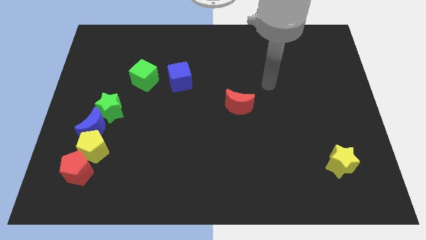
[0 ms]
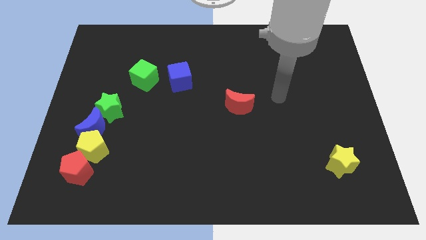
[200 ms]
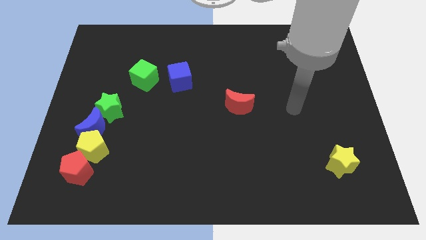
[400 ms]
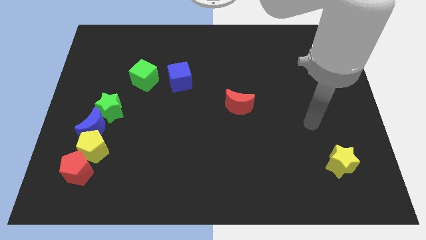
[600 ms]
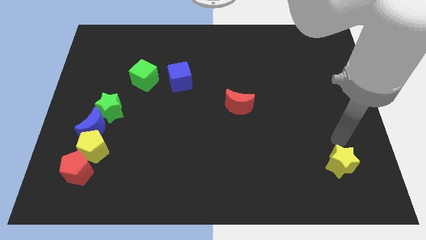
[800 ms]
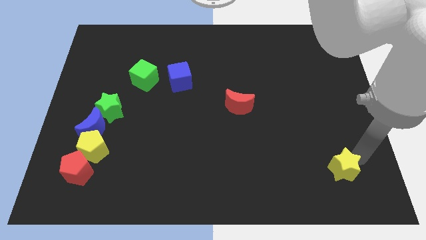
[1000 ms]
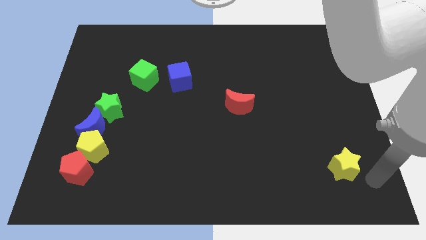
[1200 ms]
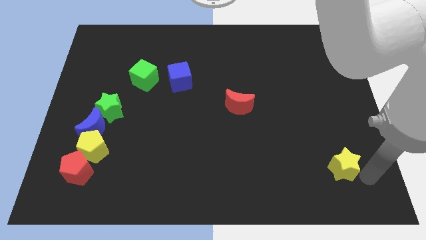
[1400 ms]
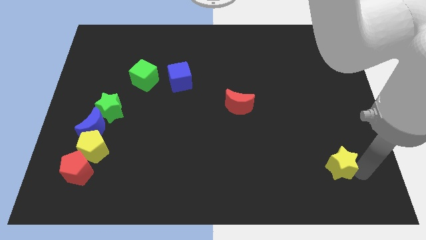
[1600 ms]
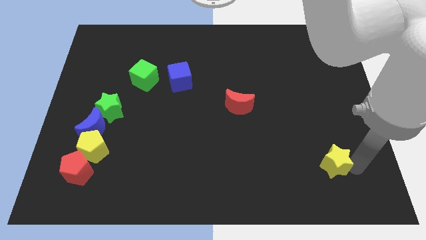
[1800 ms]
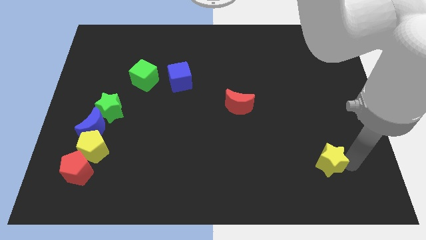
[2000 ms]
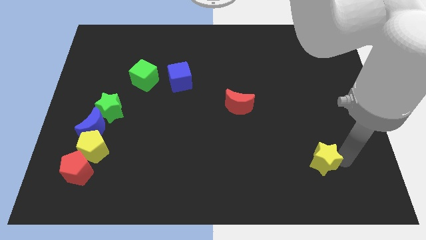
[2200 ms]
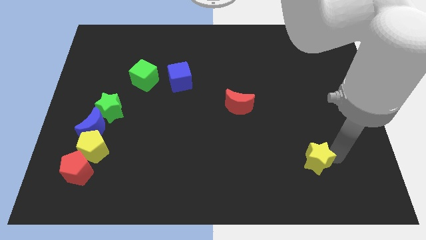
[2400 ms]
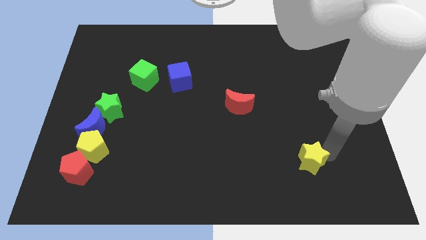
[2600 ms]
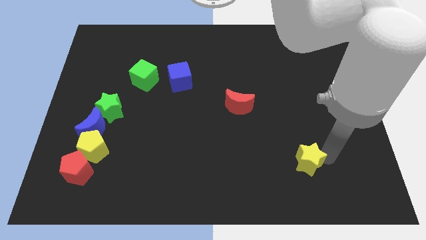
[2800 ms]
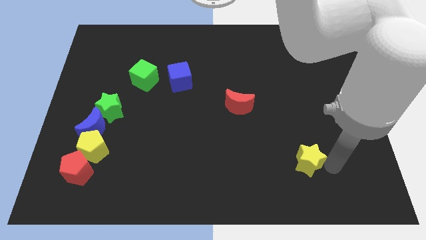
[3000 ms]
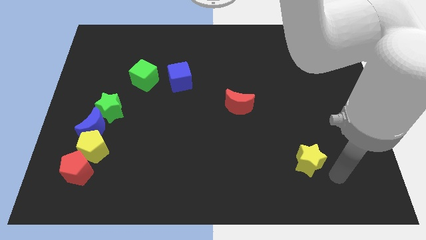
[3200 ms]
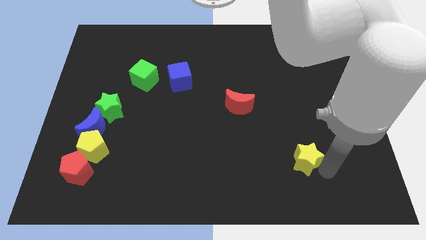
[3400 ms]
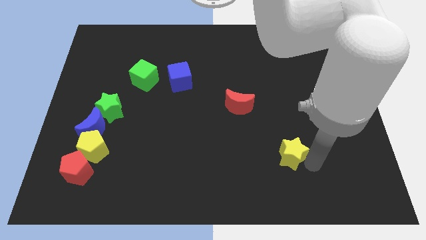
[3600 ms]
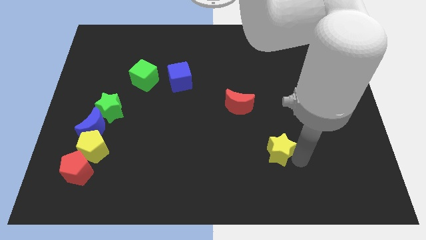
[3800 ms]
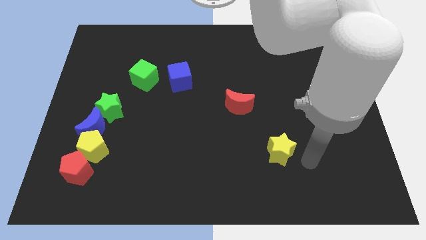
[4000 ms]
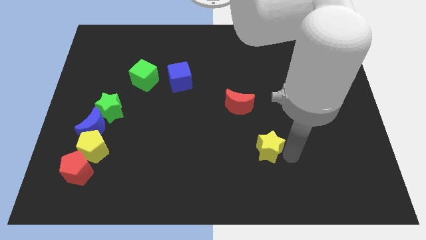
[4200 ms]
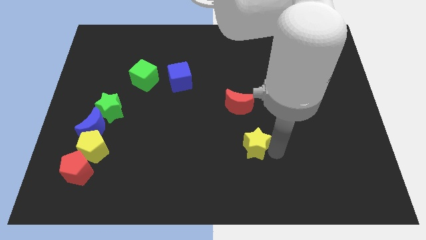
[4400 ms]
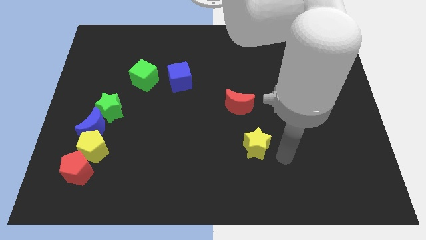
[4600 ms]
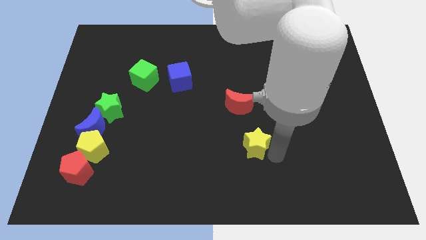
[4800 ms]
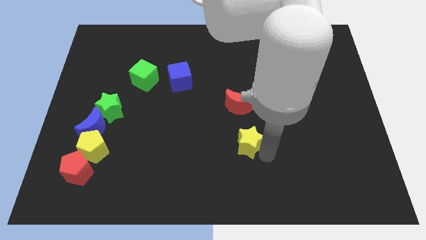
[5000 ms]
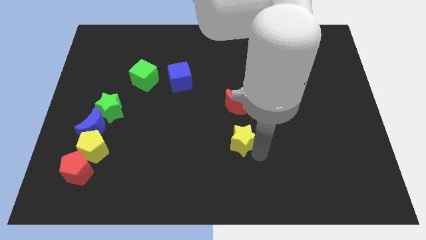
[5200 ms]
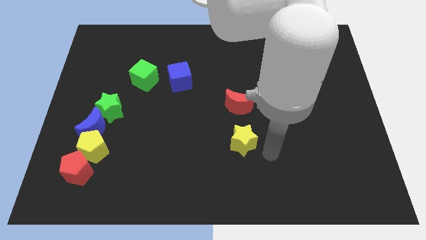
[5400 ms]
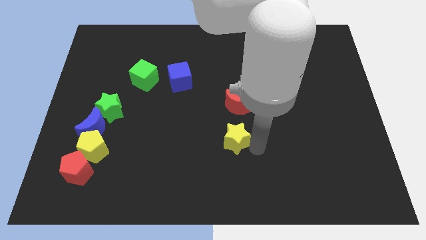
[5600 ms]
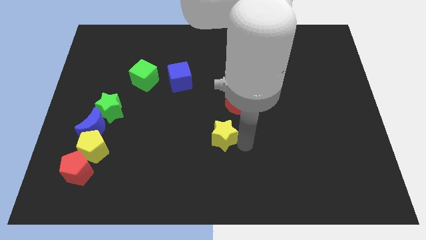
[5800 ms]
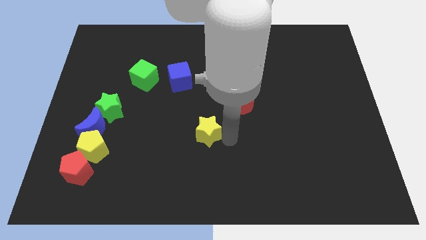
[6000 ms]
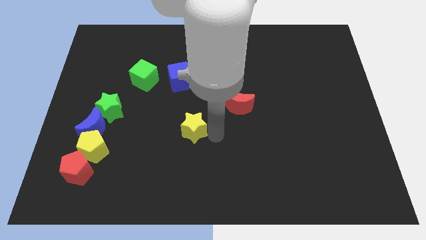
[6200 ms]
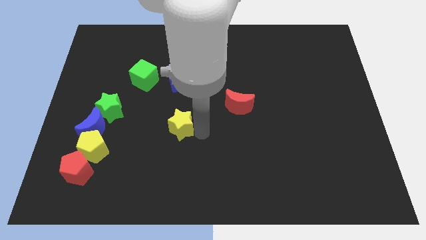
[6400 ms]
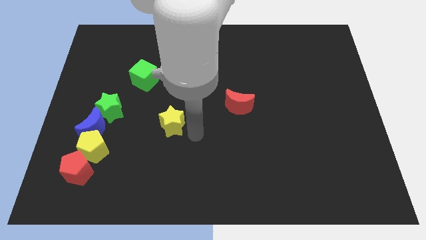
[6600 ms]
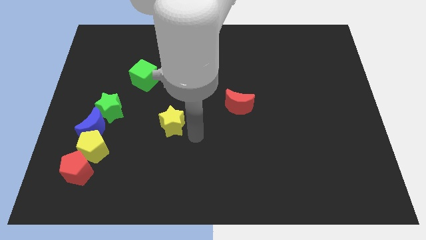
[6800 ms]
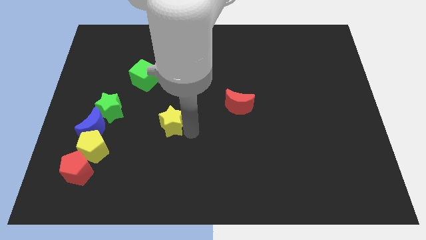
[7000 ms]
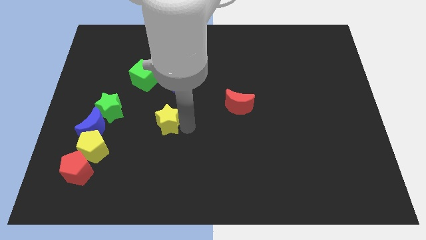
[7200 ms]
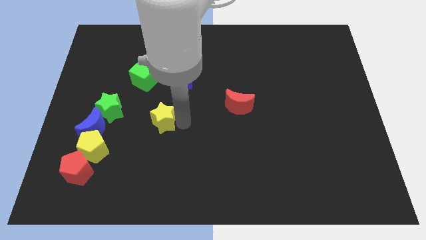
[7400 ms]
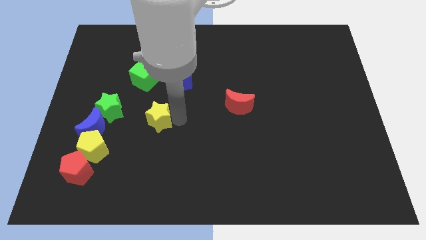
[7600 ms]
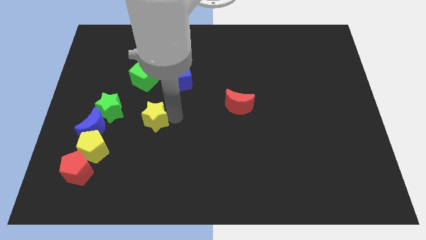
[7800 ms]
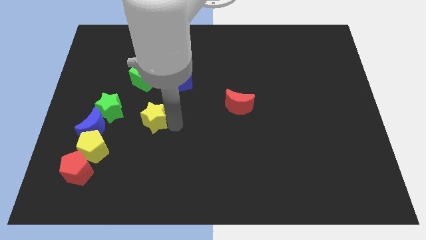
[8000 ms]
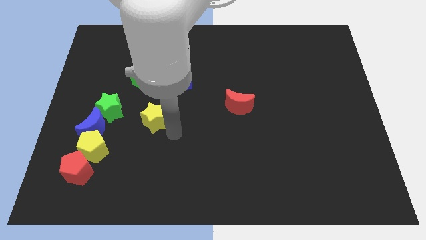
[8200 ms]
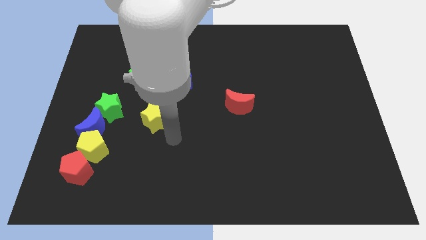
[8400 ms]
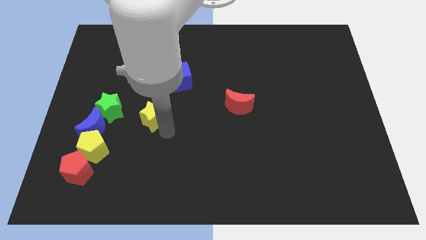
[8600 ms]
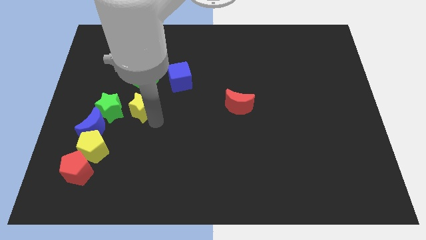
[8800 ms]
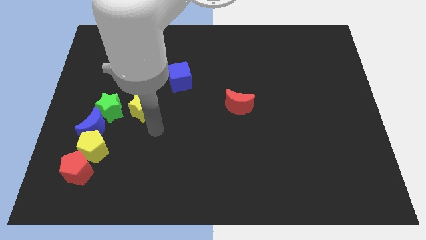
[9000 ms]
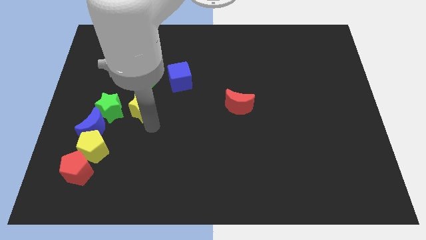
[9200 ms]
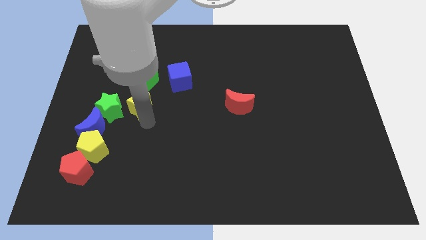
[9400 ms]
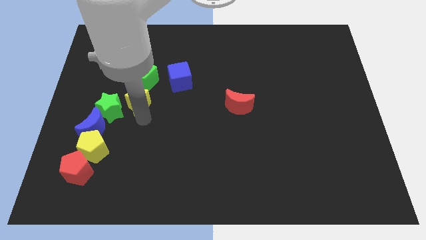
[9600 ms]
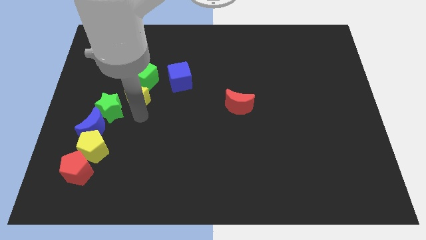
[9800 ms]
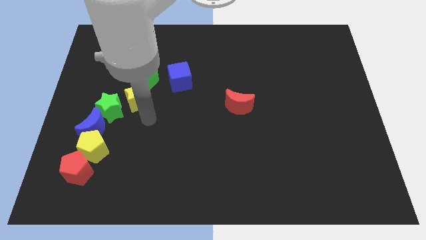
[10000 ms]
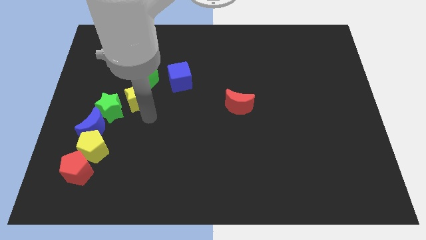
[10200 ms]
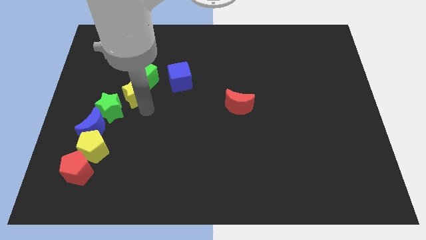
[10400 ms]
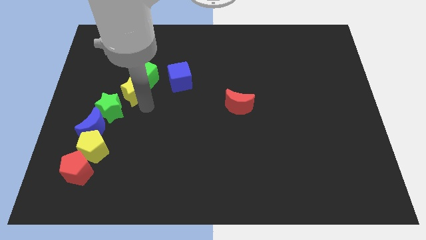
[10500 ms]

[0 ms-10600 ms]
push the yellow star above the green star

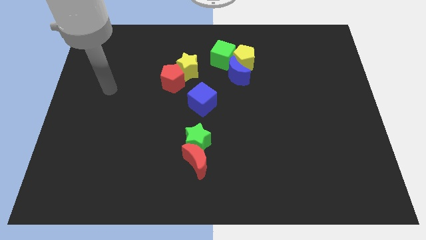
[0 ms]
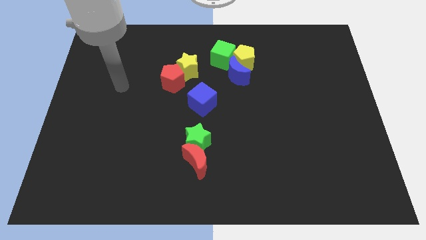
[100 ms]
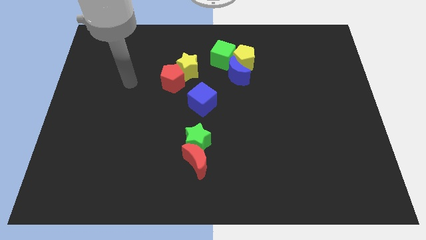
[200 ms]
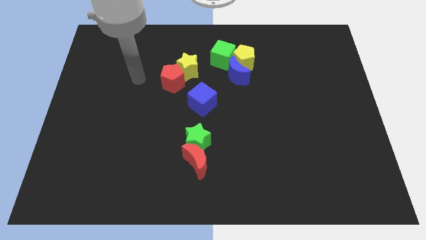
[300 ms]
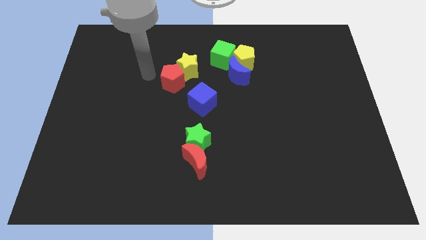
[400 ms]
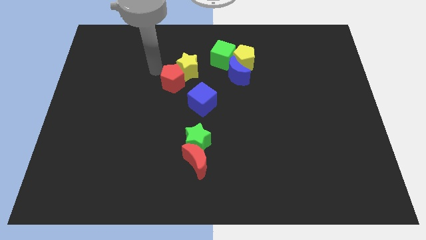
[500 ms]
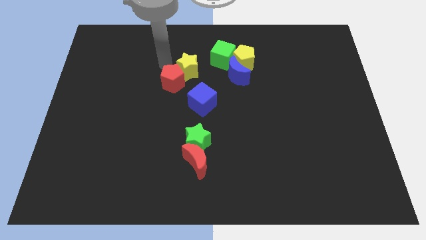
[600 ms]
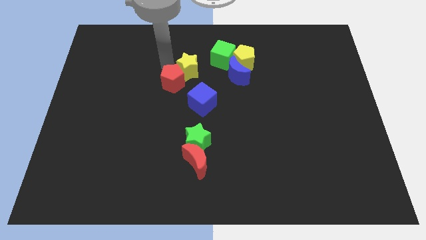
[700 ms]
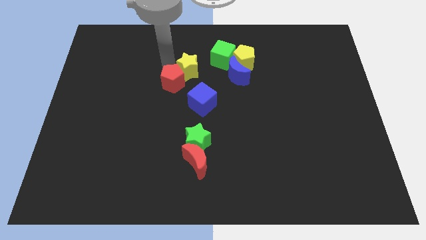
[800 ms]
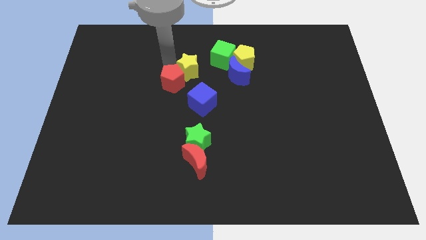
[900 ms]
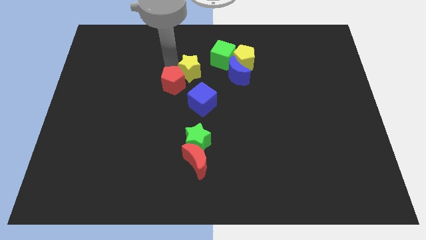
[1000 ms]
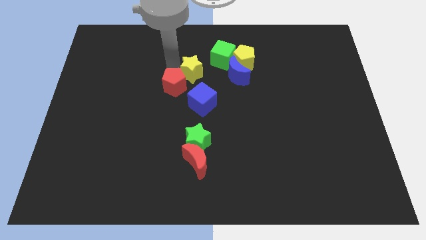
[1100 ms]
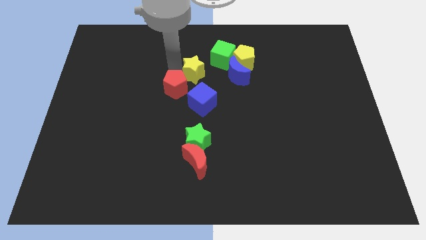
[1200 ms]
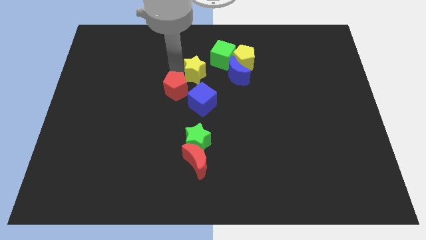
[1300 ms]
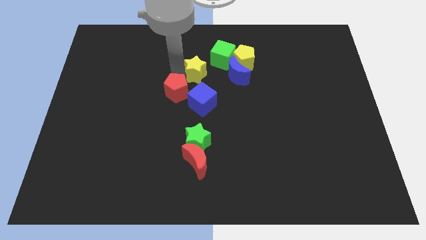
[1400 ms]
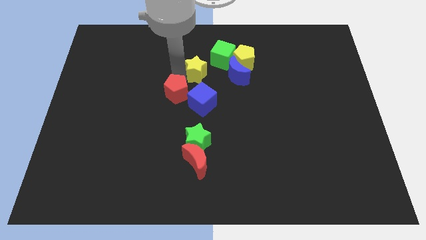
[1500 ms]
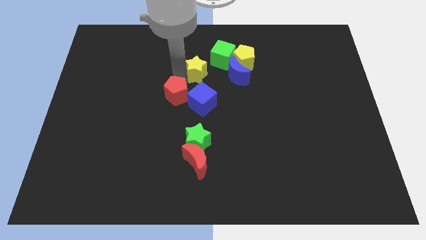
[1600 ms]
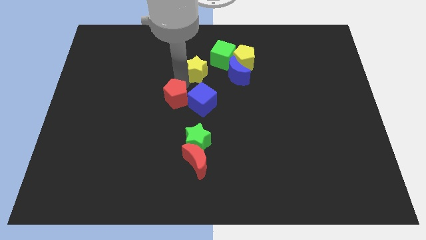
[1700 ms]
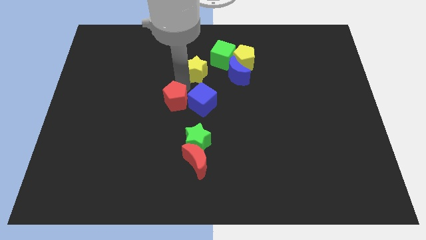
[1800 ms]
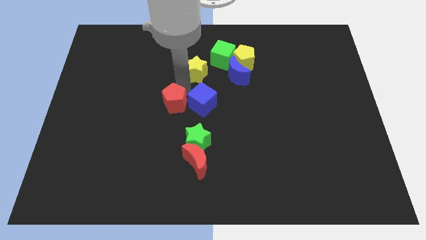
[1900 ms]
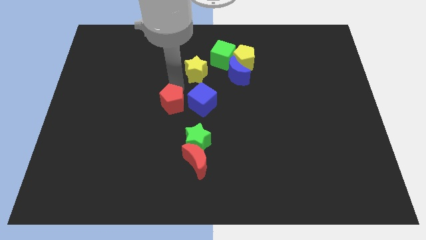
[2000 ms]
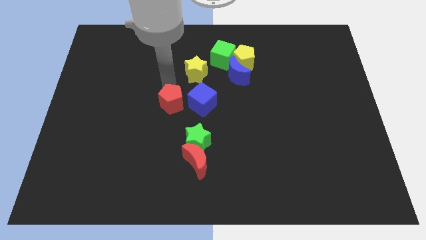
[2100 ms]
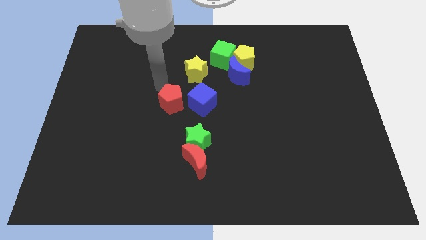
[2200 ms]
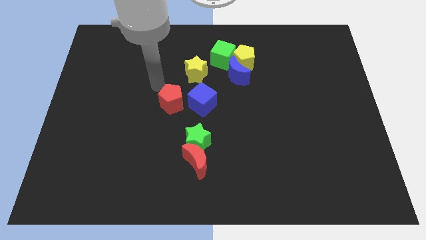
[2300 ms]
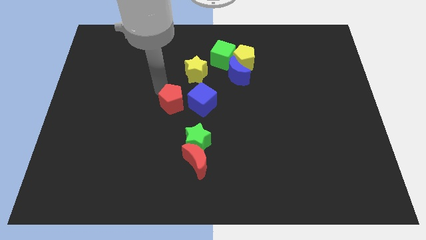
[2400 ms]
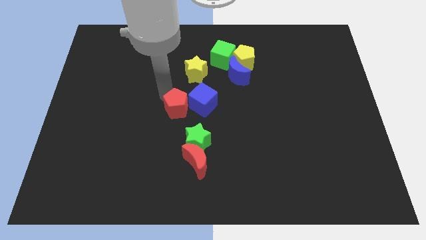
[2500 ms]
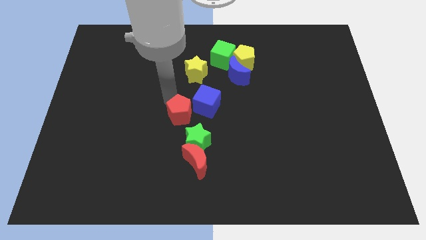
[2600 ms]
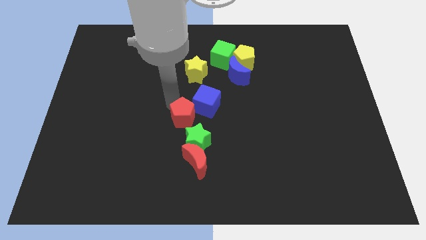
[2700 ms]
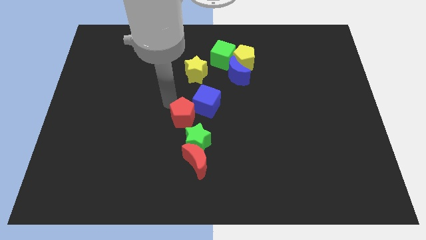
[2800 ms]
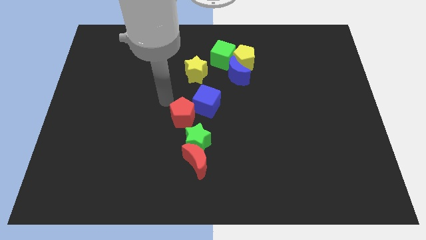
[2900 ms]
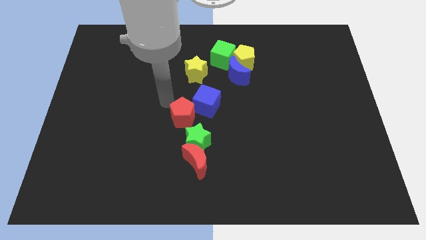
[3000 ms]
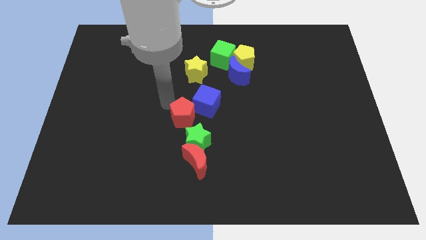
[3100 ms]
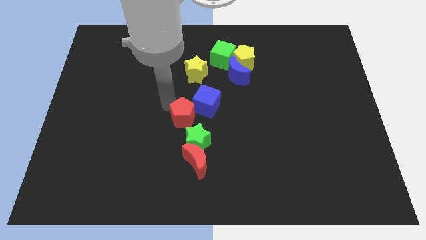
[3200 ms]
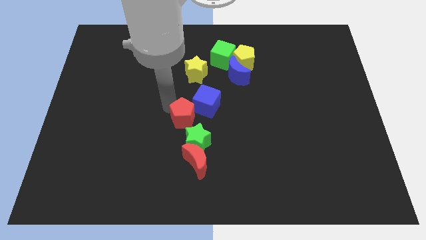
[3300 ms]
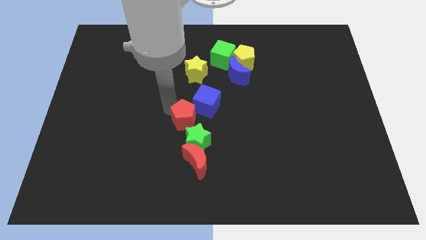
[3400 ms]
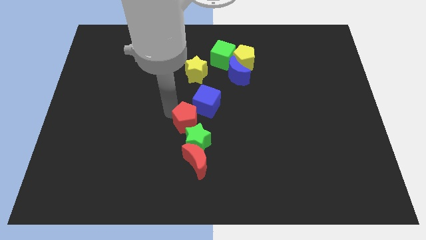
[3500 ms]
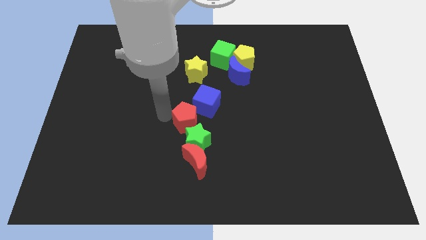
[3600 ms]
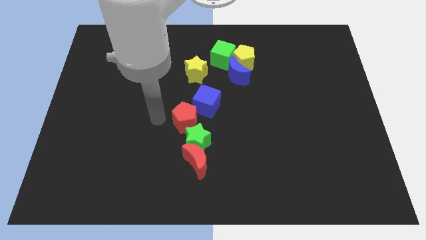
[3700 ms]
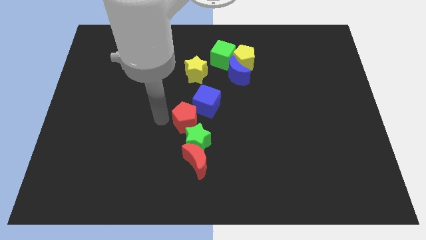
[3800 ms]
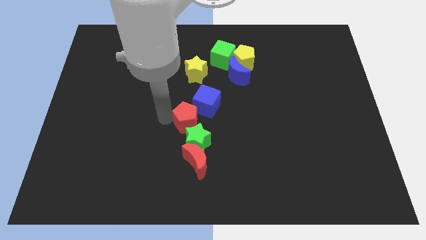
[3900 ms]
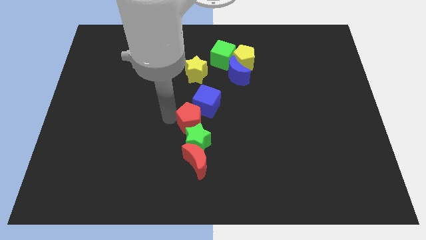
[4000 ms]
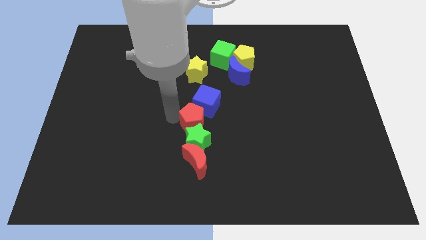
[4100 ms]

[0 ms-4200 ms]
push the red pentagon to the top right side of the green star
